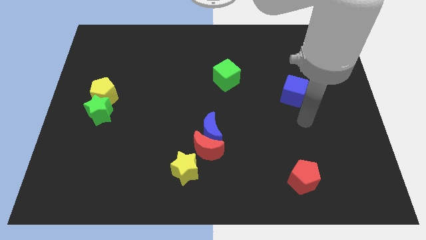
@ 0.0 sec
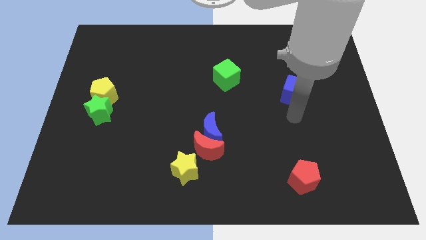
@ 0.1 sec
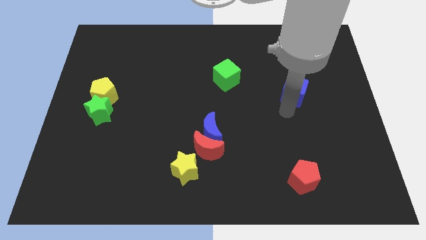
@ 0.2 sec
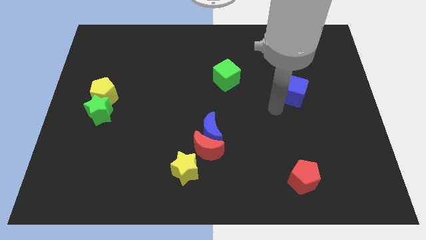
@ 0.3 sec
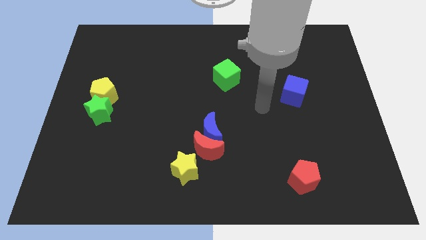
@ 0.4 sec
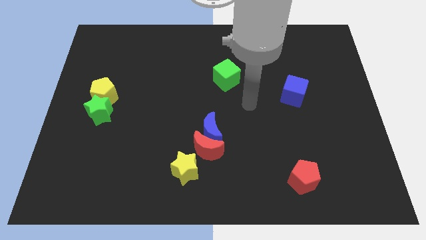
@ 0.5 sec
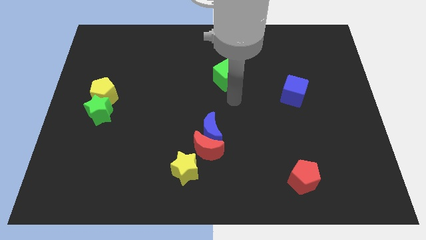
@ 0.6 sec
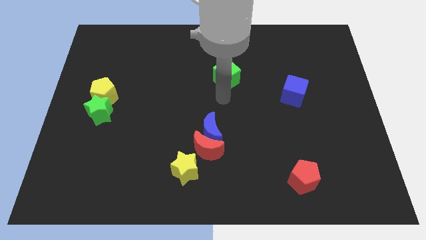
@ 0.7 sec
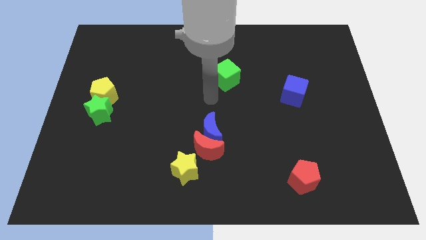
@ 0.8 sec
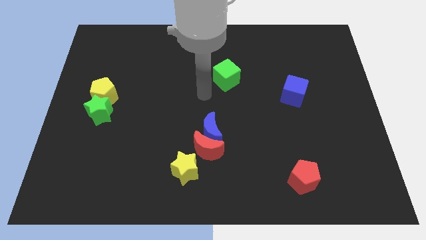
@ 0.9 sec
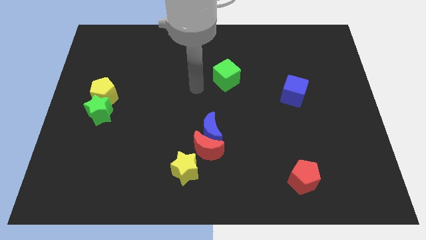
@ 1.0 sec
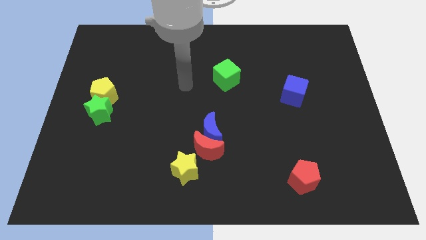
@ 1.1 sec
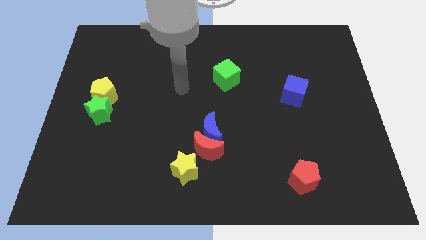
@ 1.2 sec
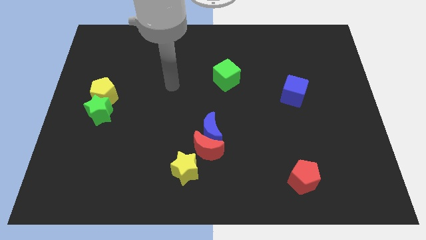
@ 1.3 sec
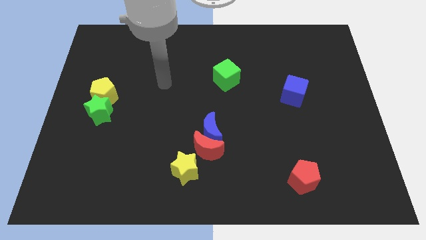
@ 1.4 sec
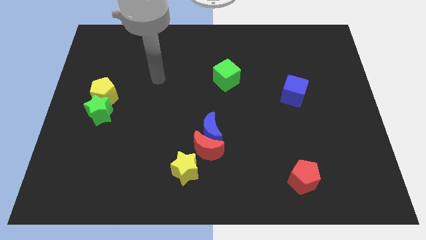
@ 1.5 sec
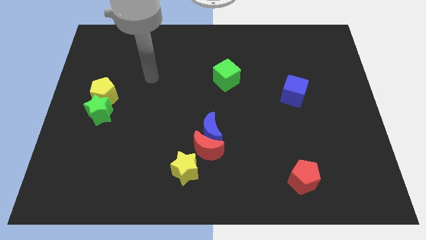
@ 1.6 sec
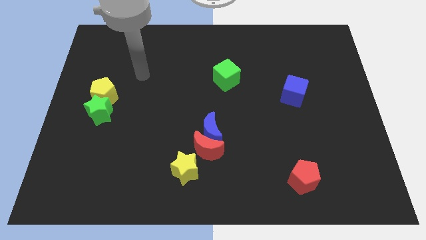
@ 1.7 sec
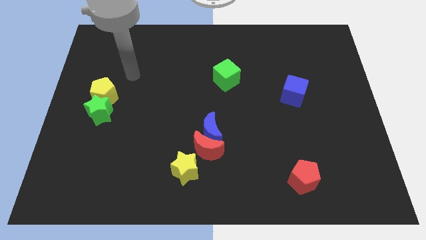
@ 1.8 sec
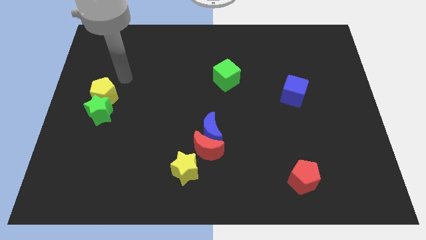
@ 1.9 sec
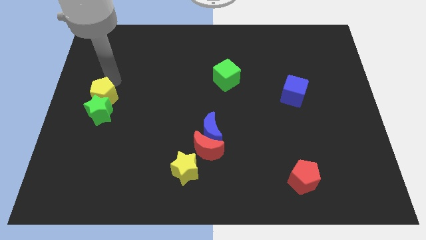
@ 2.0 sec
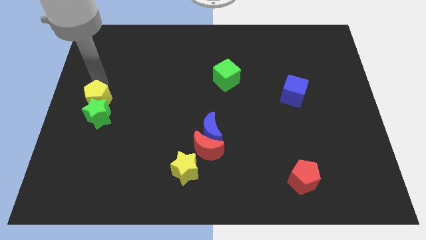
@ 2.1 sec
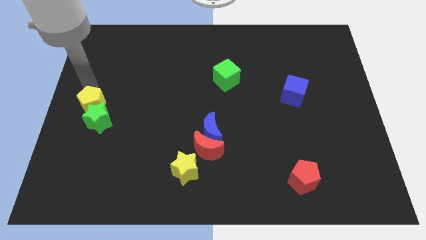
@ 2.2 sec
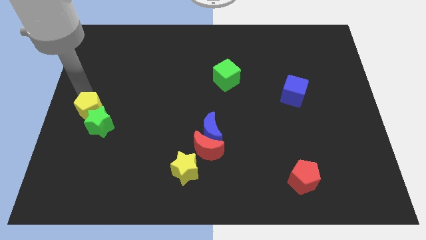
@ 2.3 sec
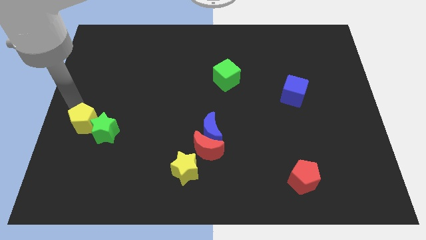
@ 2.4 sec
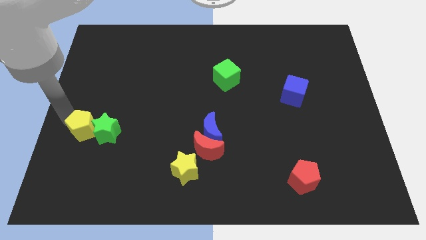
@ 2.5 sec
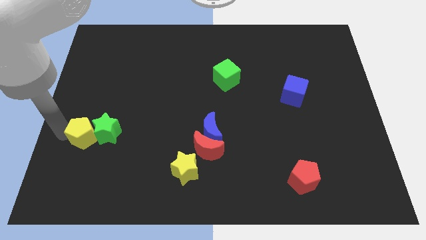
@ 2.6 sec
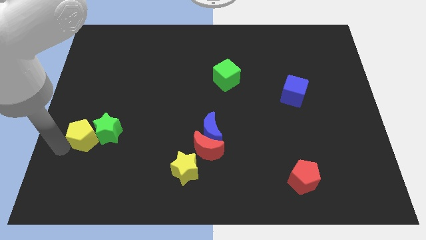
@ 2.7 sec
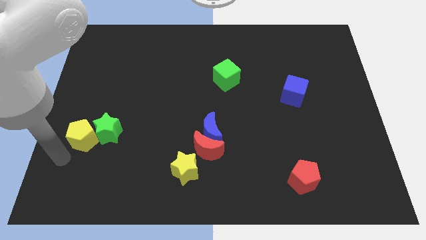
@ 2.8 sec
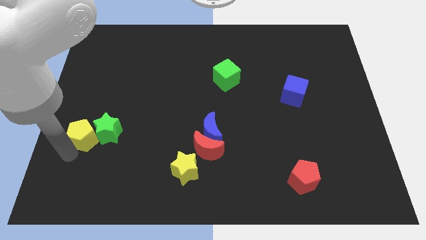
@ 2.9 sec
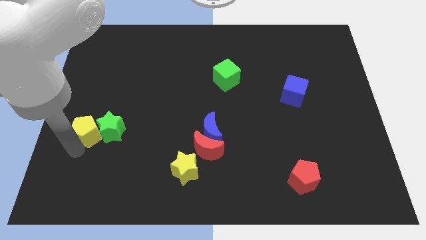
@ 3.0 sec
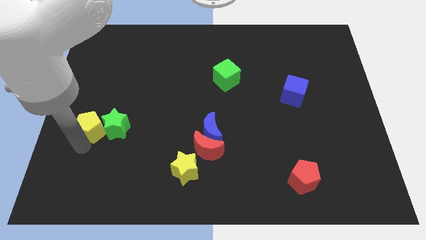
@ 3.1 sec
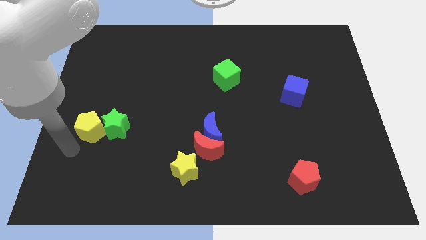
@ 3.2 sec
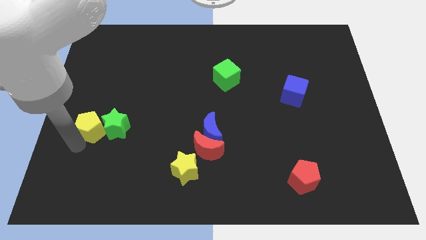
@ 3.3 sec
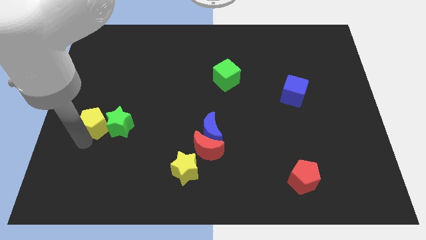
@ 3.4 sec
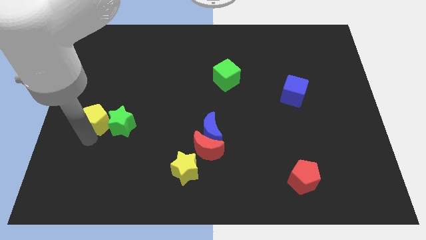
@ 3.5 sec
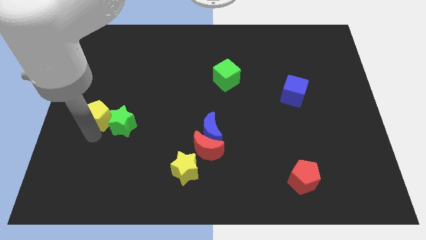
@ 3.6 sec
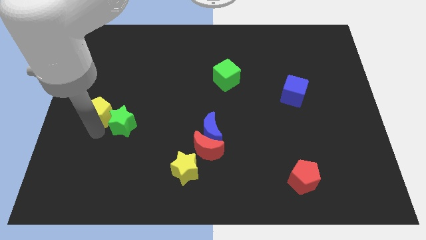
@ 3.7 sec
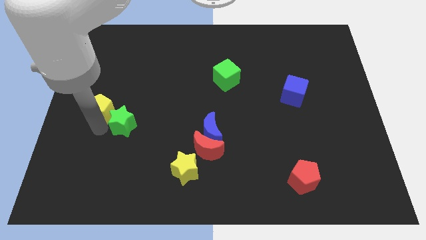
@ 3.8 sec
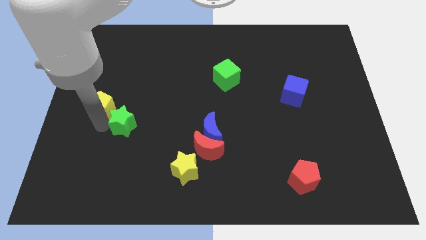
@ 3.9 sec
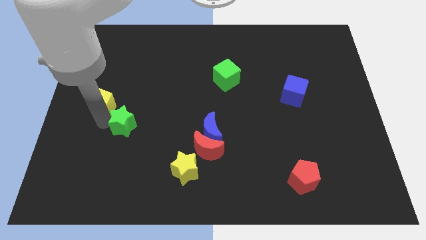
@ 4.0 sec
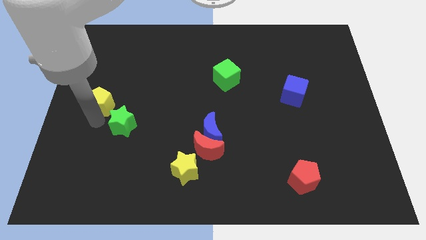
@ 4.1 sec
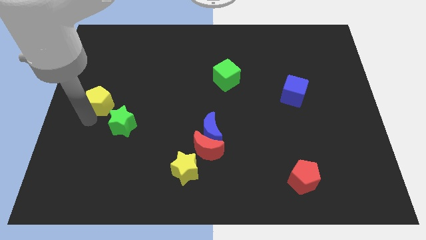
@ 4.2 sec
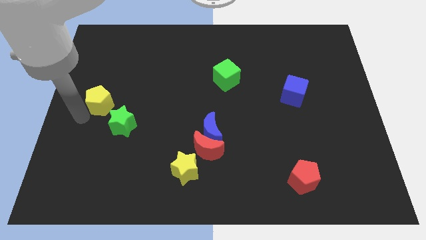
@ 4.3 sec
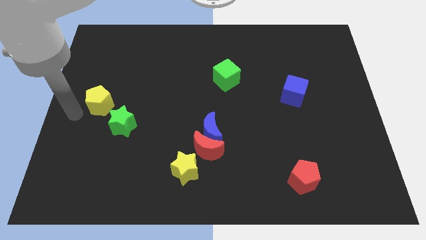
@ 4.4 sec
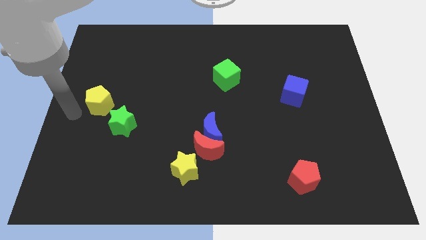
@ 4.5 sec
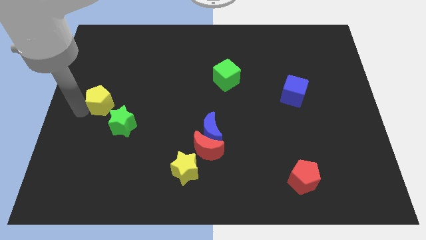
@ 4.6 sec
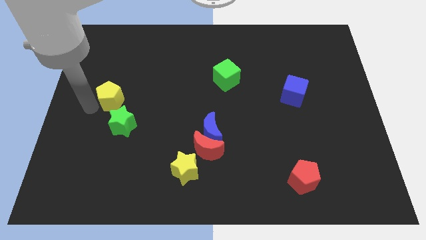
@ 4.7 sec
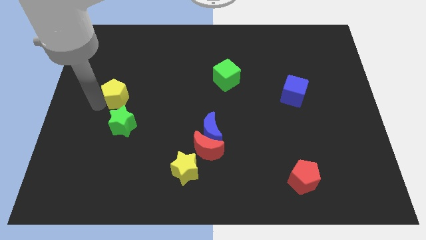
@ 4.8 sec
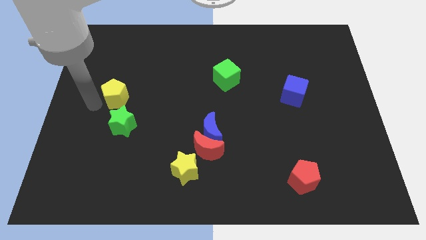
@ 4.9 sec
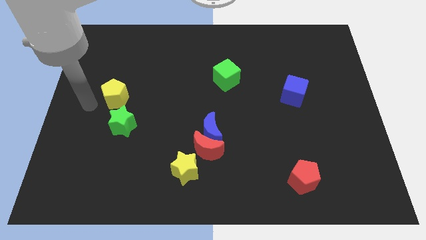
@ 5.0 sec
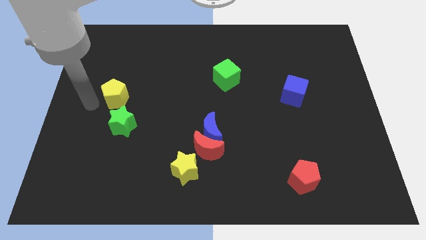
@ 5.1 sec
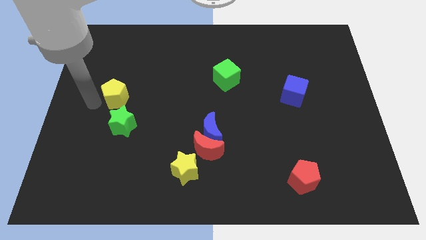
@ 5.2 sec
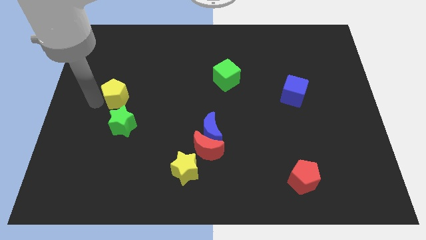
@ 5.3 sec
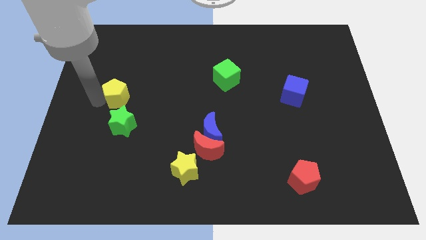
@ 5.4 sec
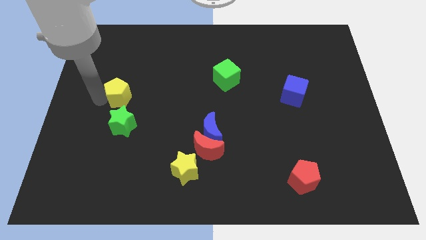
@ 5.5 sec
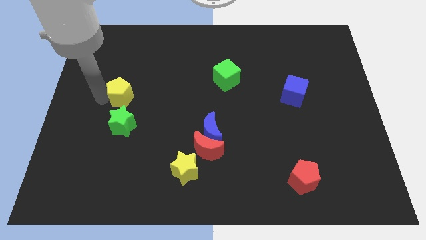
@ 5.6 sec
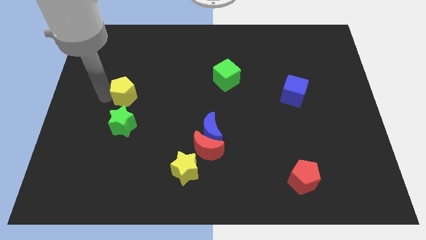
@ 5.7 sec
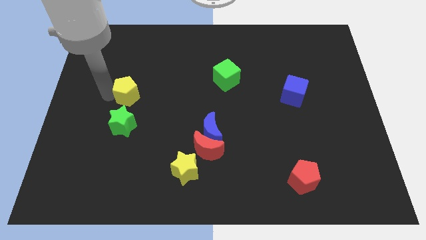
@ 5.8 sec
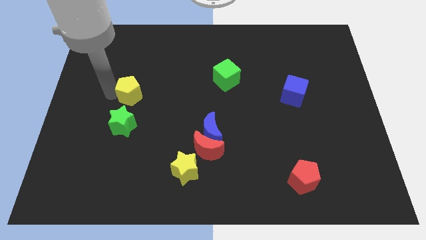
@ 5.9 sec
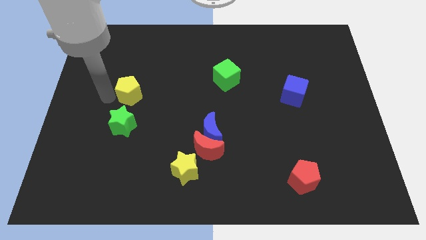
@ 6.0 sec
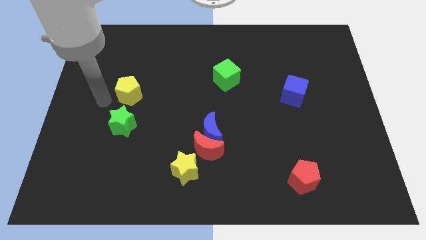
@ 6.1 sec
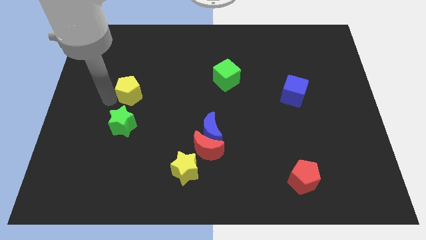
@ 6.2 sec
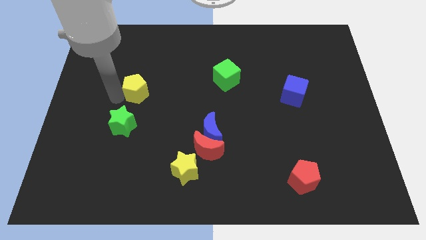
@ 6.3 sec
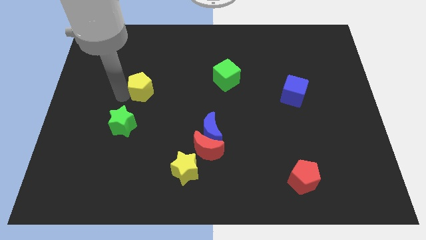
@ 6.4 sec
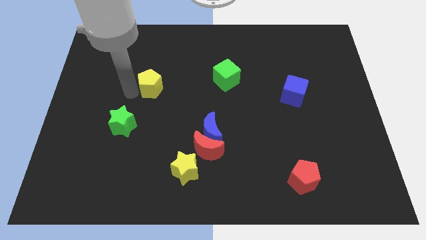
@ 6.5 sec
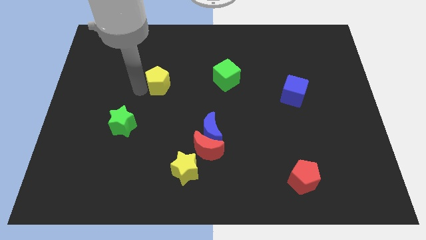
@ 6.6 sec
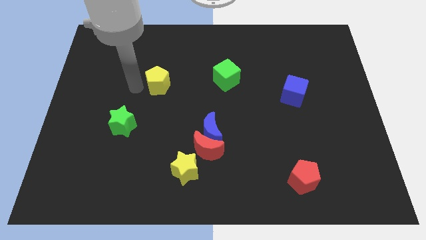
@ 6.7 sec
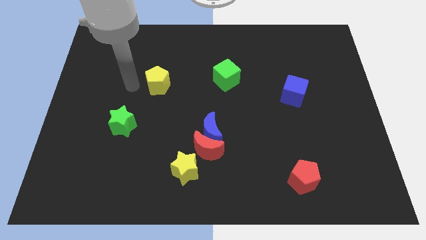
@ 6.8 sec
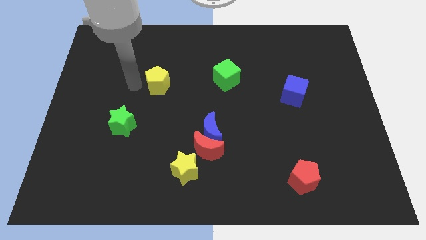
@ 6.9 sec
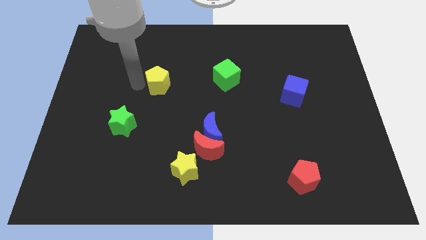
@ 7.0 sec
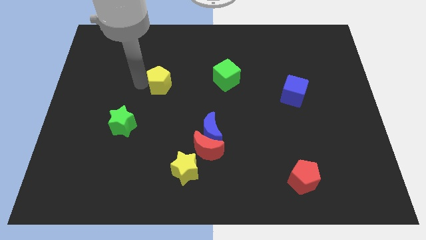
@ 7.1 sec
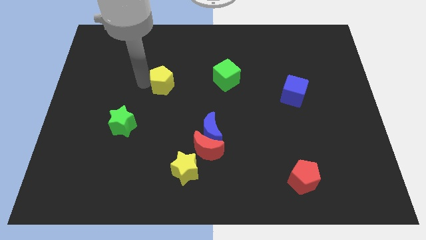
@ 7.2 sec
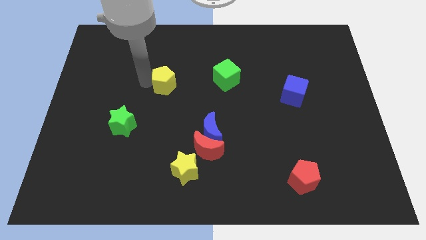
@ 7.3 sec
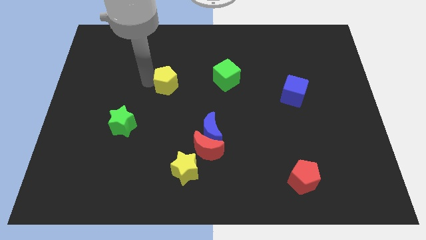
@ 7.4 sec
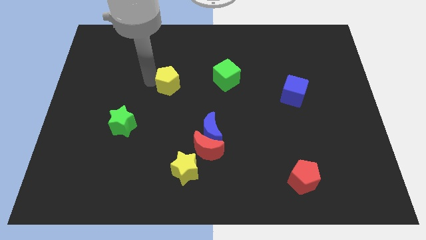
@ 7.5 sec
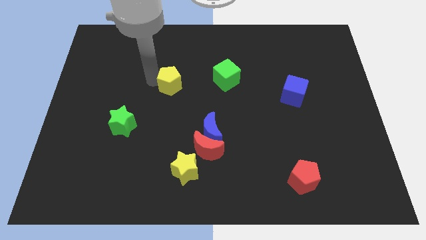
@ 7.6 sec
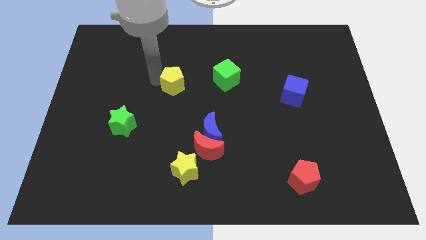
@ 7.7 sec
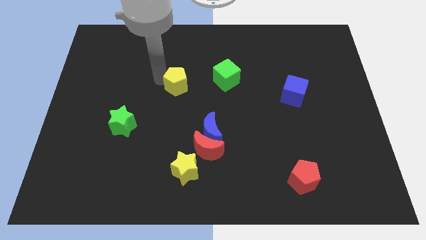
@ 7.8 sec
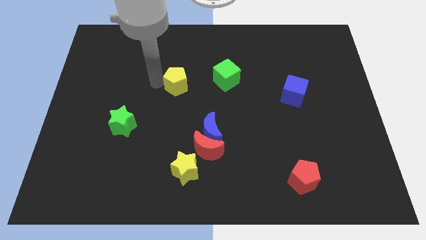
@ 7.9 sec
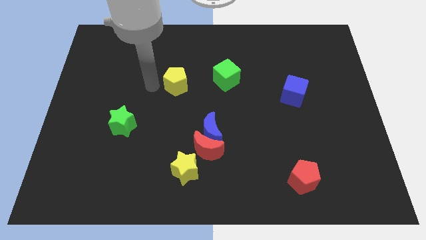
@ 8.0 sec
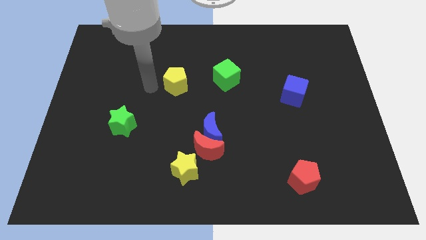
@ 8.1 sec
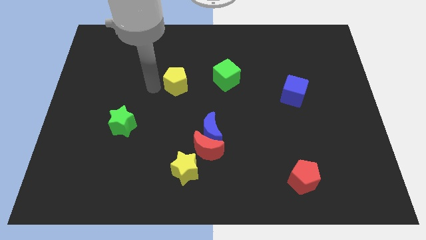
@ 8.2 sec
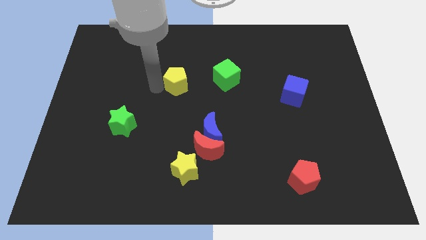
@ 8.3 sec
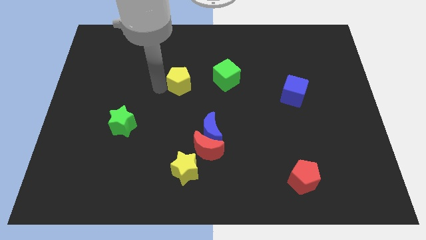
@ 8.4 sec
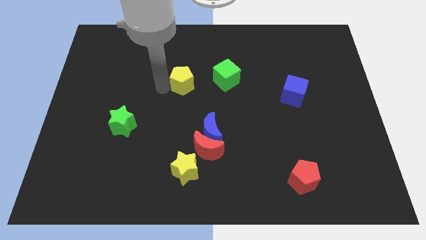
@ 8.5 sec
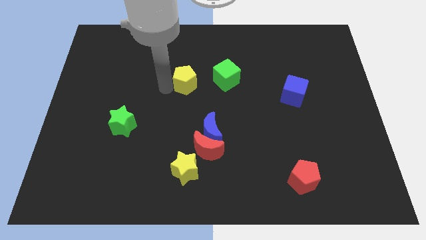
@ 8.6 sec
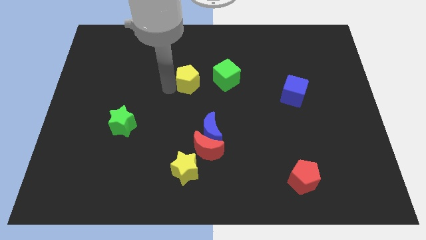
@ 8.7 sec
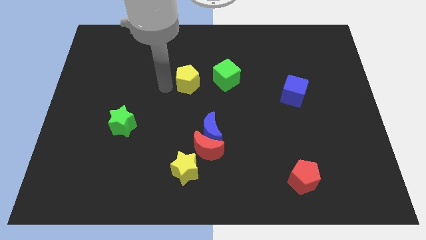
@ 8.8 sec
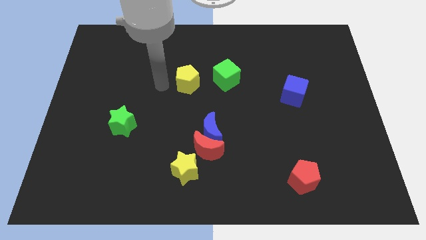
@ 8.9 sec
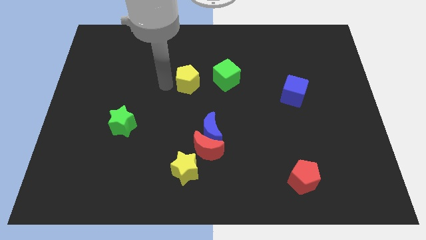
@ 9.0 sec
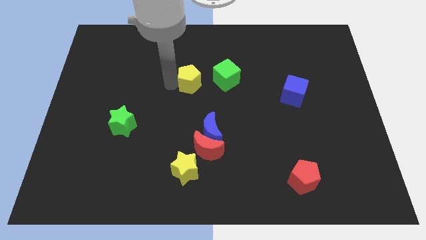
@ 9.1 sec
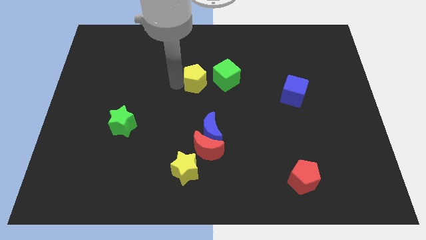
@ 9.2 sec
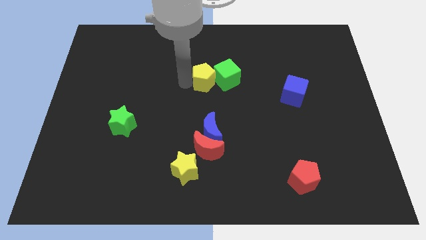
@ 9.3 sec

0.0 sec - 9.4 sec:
push the yellow pentagon towards the green cube
